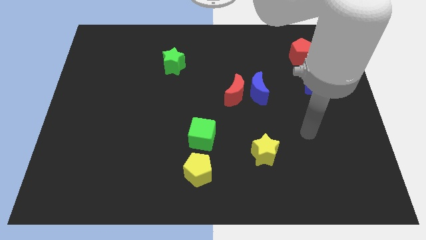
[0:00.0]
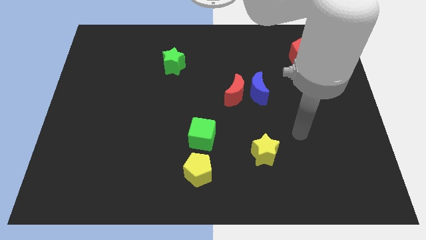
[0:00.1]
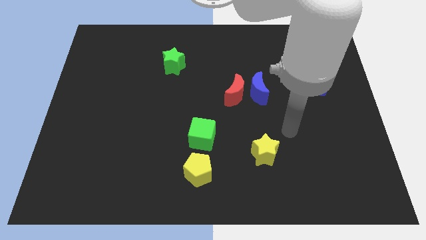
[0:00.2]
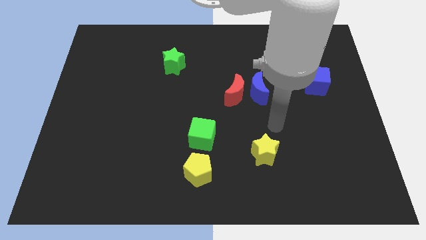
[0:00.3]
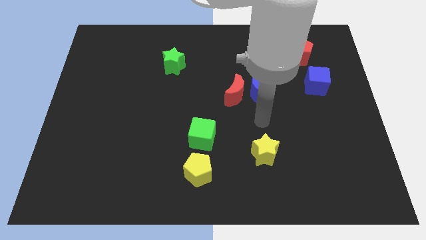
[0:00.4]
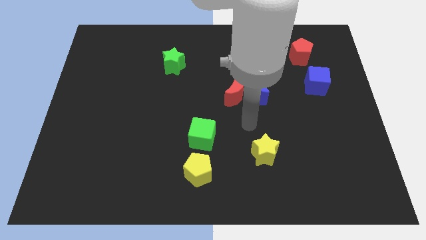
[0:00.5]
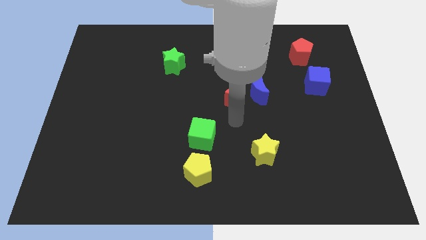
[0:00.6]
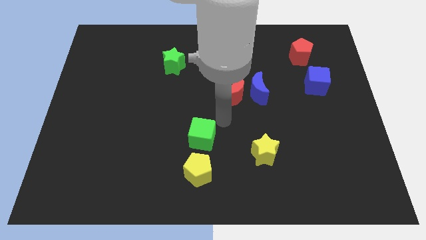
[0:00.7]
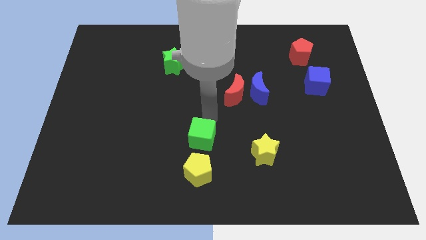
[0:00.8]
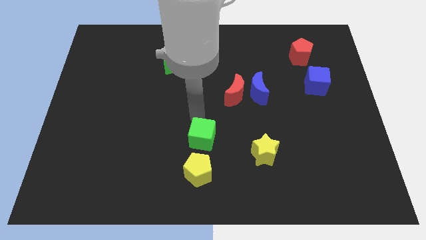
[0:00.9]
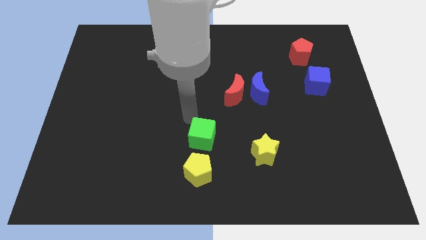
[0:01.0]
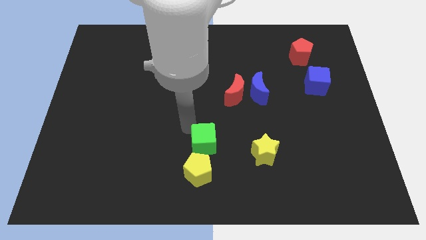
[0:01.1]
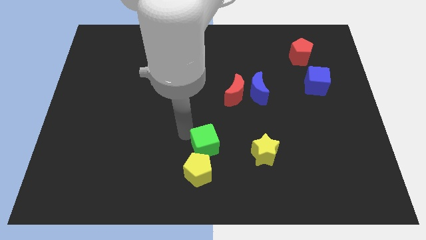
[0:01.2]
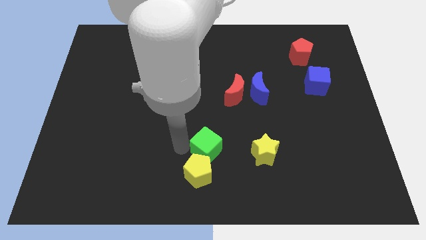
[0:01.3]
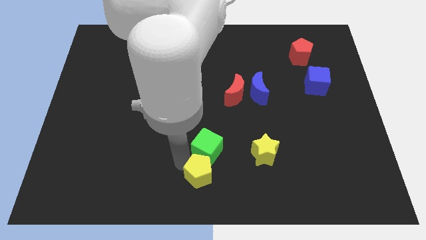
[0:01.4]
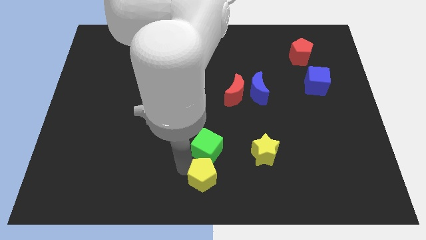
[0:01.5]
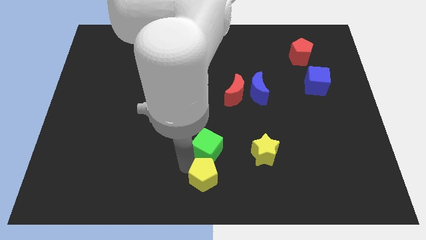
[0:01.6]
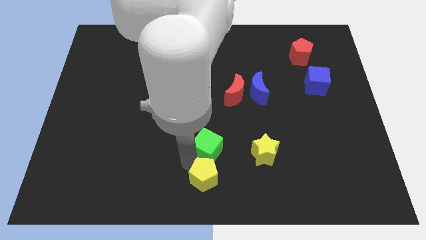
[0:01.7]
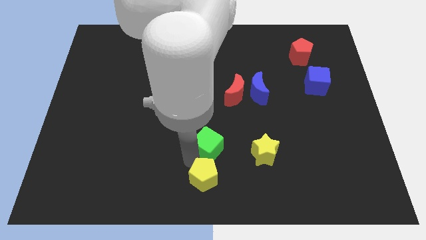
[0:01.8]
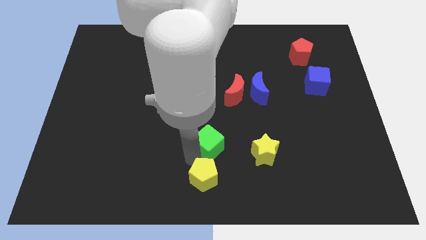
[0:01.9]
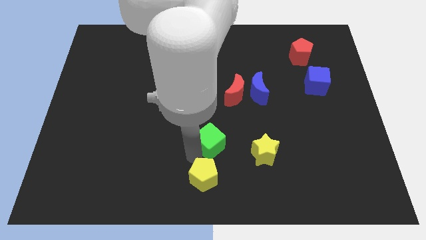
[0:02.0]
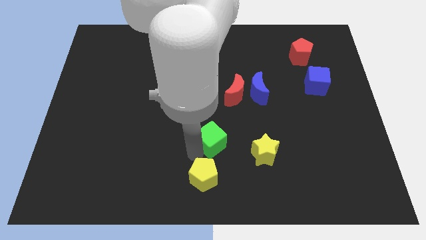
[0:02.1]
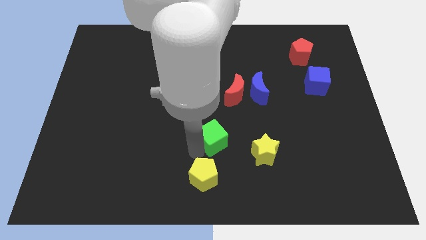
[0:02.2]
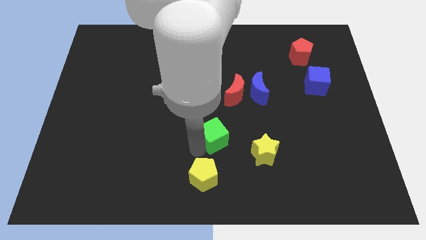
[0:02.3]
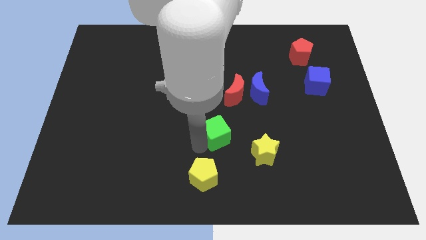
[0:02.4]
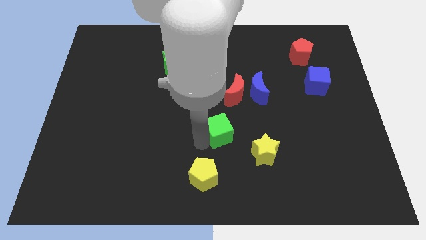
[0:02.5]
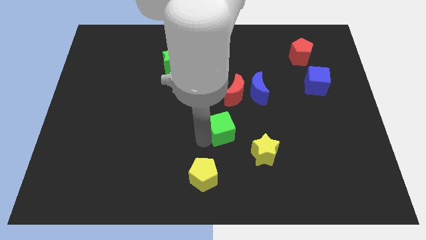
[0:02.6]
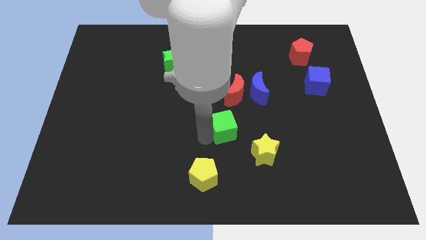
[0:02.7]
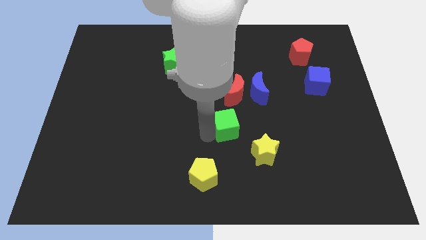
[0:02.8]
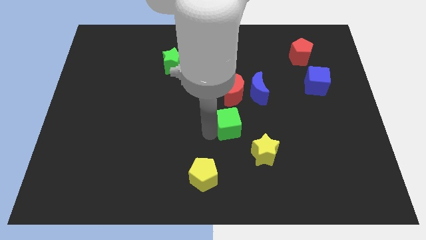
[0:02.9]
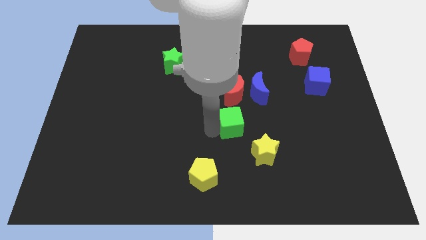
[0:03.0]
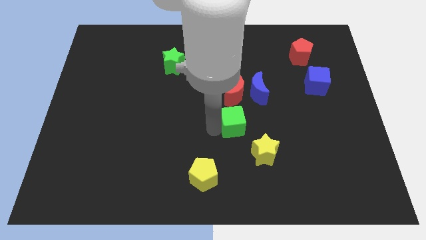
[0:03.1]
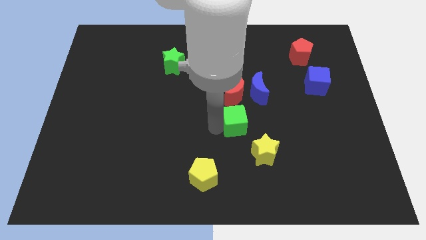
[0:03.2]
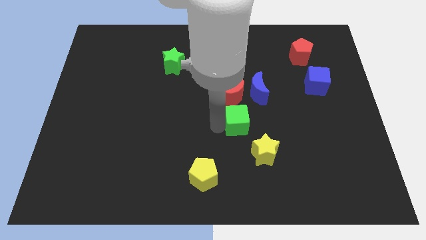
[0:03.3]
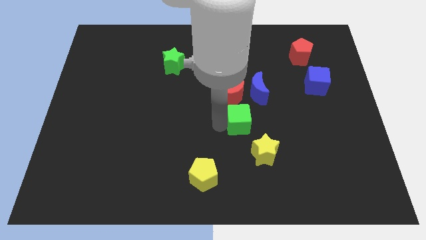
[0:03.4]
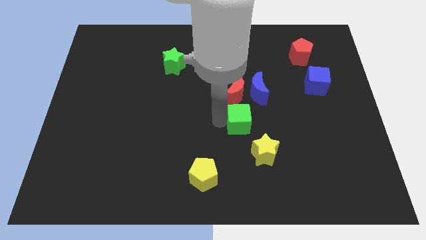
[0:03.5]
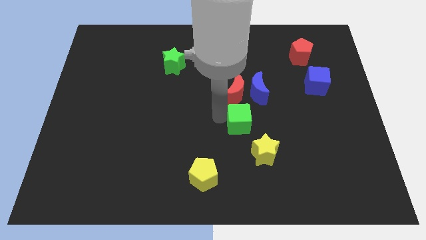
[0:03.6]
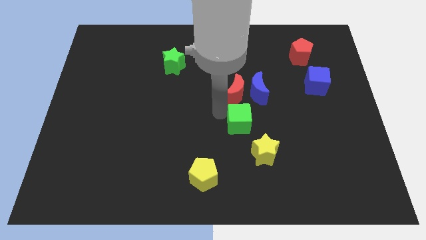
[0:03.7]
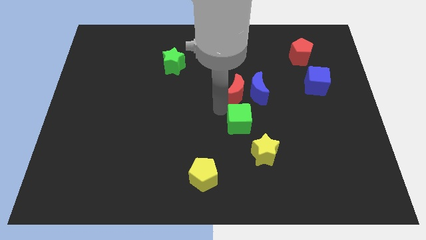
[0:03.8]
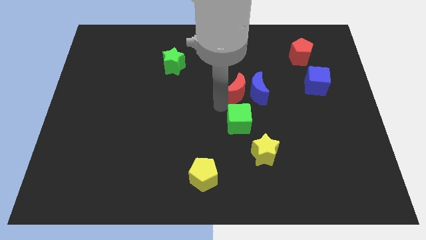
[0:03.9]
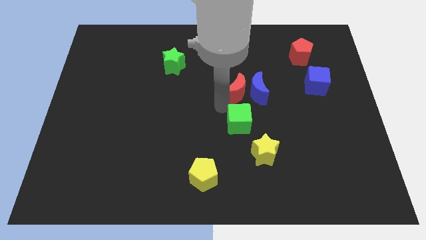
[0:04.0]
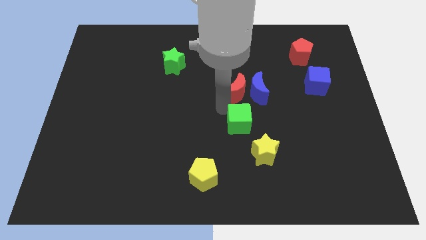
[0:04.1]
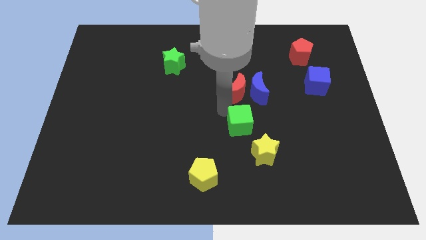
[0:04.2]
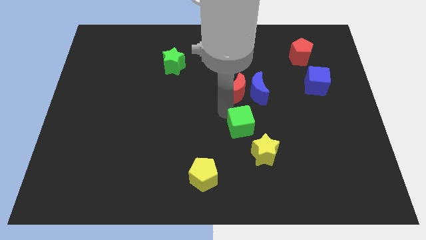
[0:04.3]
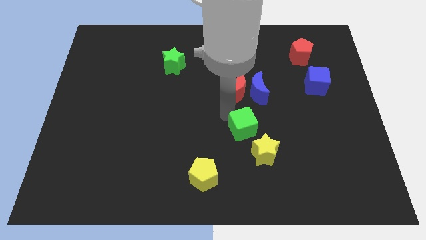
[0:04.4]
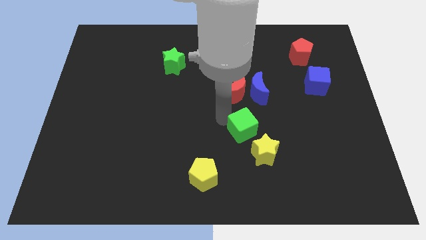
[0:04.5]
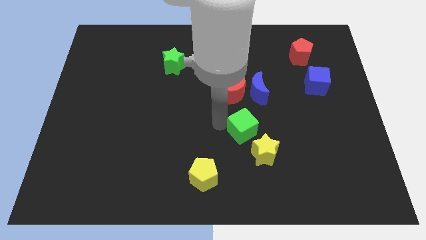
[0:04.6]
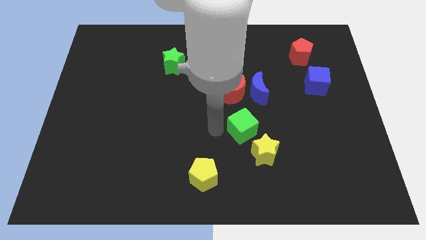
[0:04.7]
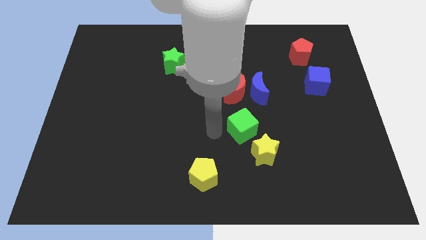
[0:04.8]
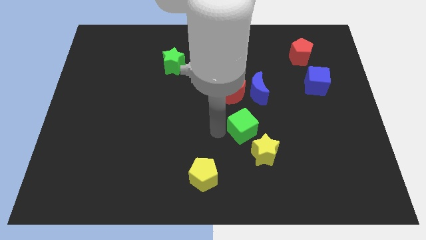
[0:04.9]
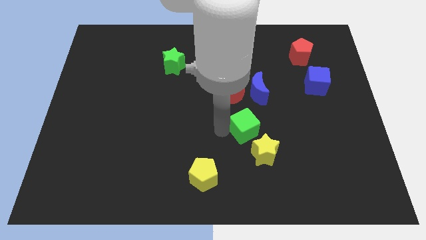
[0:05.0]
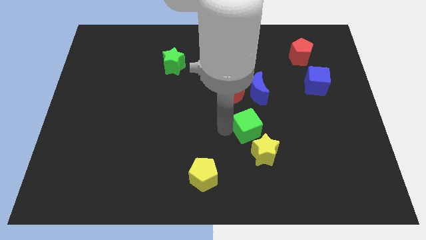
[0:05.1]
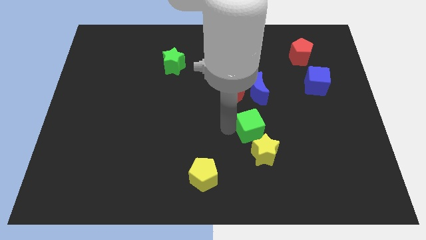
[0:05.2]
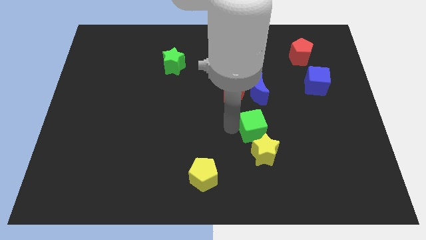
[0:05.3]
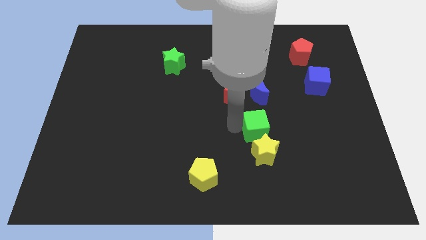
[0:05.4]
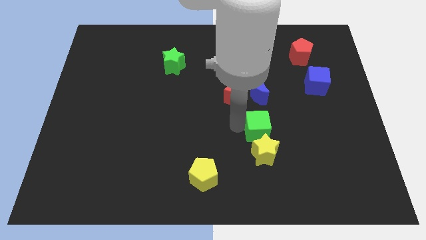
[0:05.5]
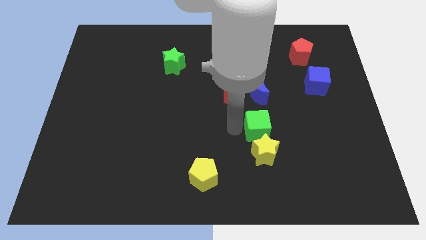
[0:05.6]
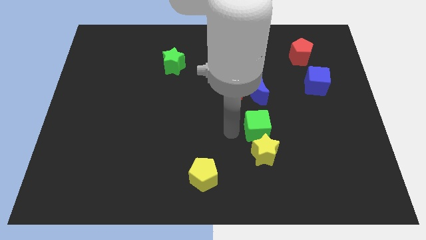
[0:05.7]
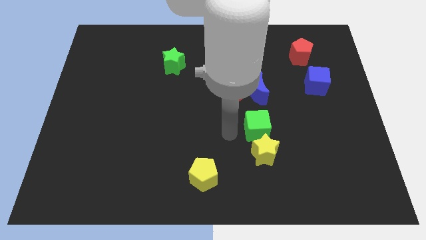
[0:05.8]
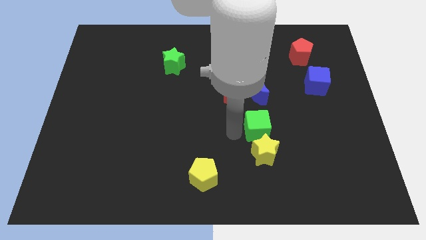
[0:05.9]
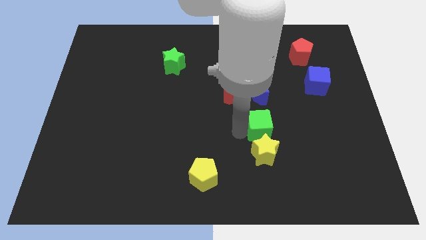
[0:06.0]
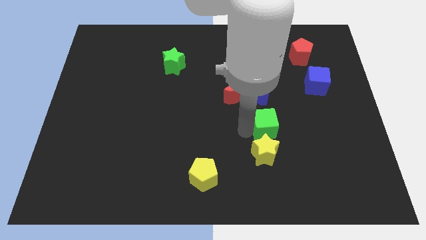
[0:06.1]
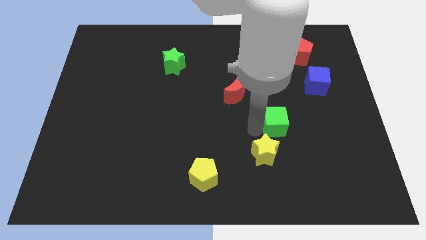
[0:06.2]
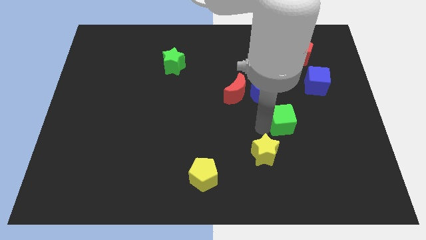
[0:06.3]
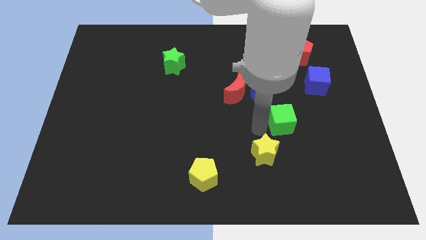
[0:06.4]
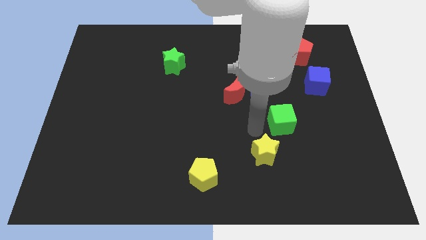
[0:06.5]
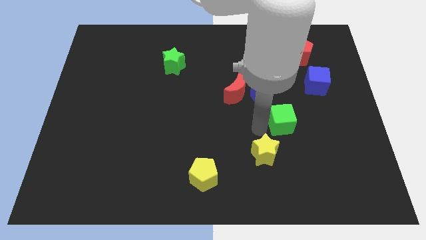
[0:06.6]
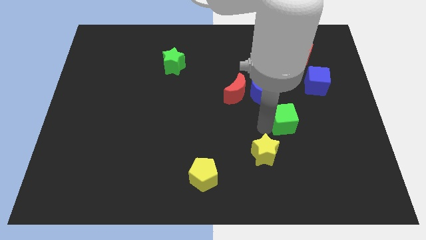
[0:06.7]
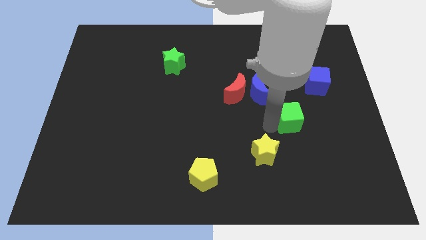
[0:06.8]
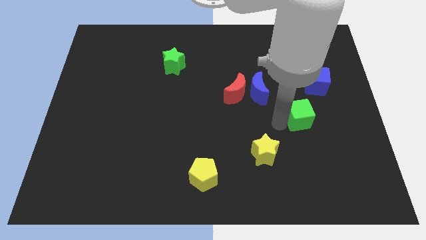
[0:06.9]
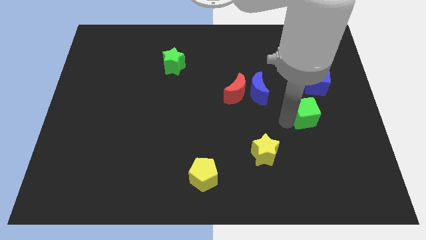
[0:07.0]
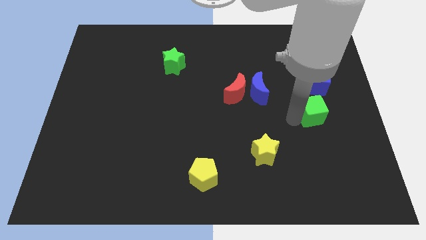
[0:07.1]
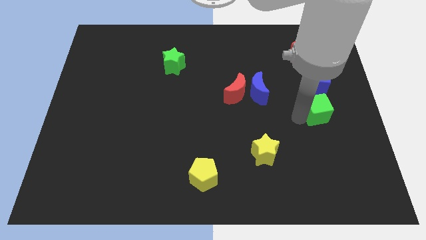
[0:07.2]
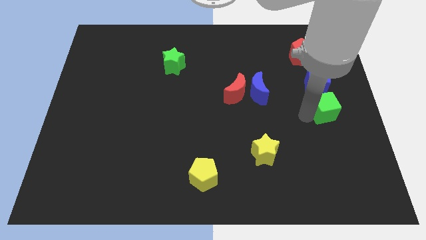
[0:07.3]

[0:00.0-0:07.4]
put the green cube to the center right
